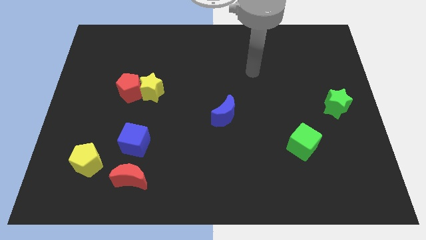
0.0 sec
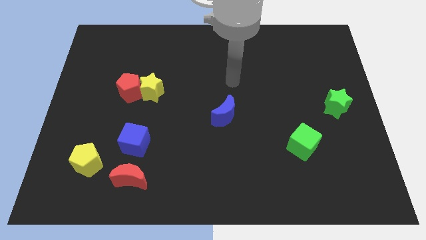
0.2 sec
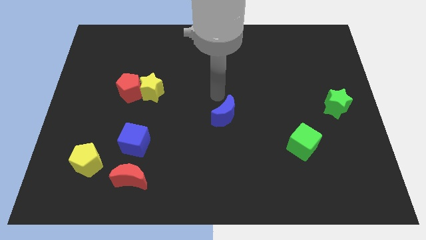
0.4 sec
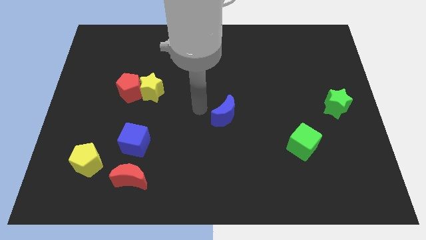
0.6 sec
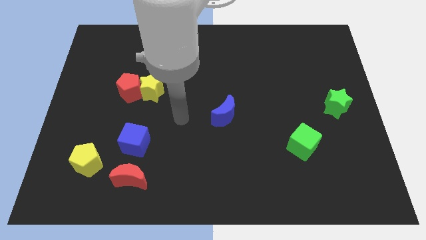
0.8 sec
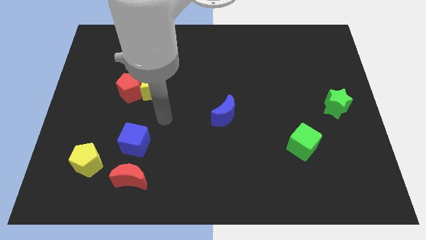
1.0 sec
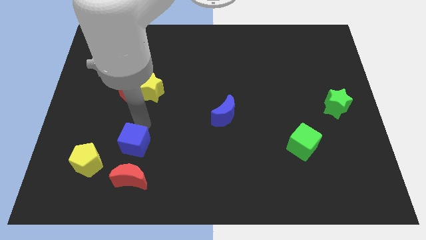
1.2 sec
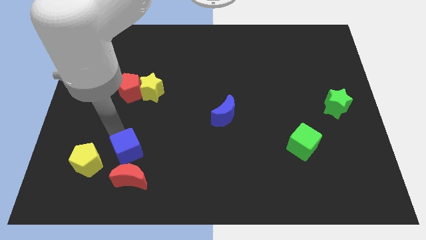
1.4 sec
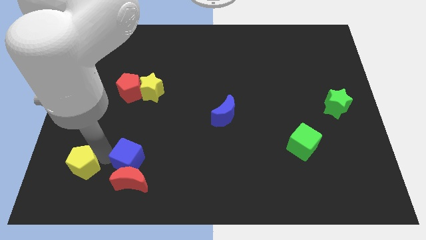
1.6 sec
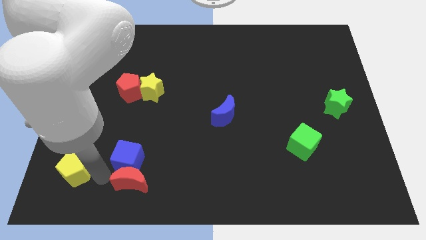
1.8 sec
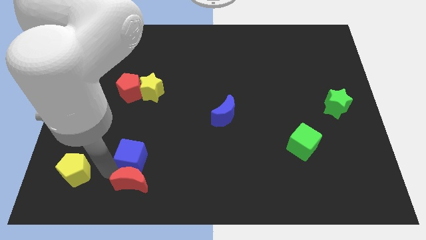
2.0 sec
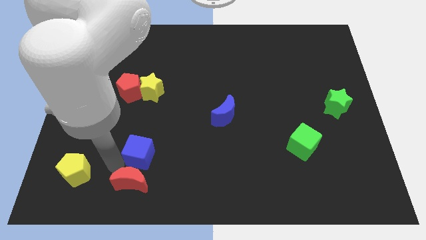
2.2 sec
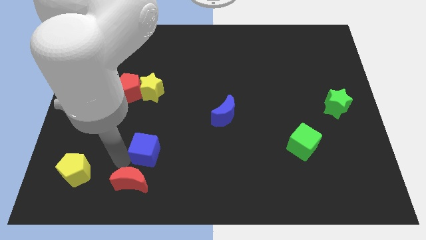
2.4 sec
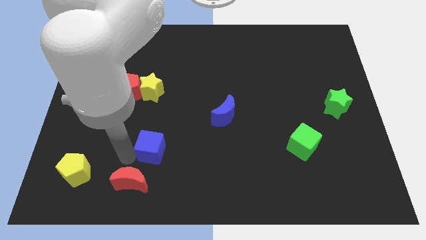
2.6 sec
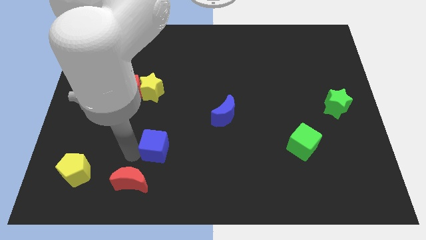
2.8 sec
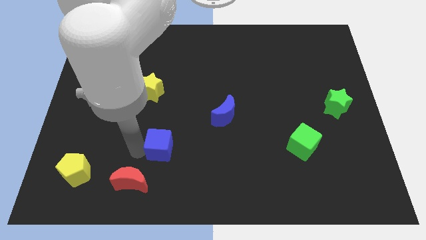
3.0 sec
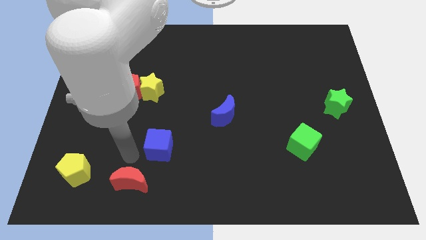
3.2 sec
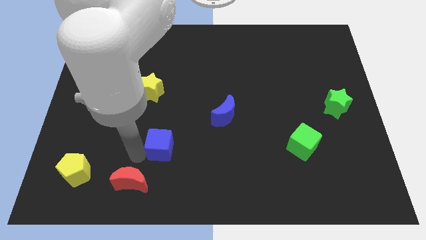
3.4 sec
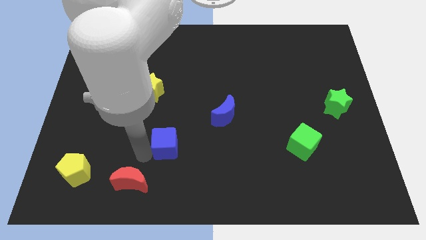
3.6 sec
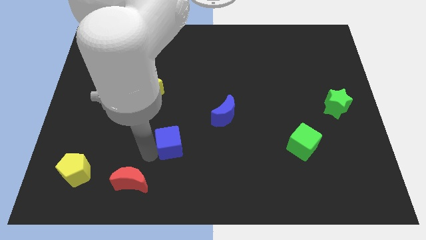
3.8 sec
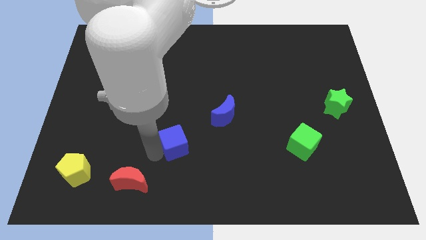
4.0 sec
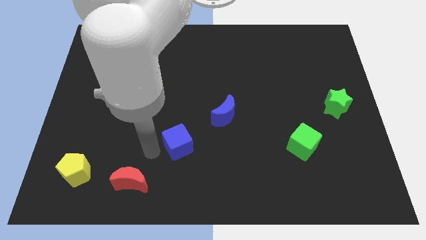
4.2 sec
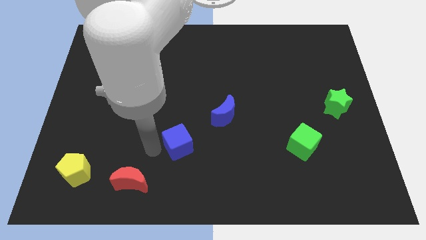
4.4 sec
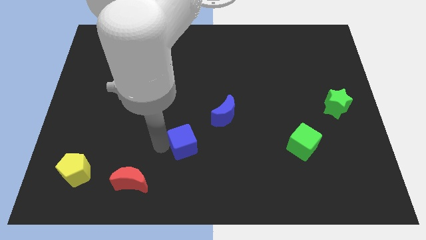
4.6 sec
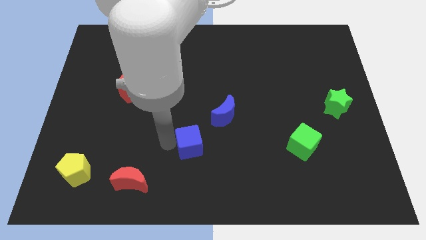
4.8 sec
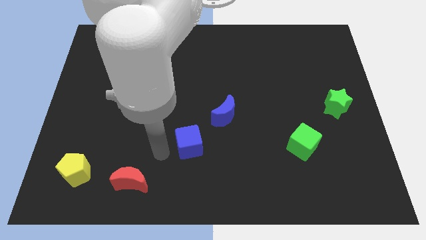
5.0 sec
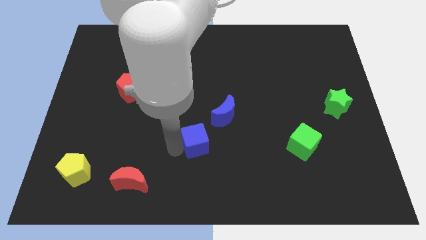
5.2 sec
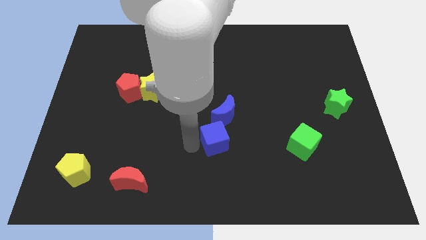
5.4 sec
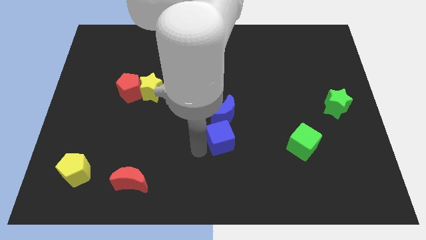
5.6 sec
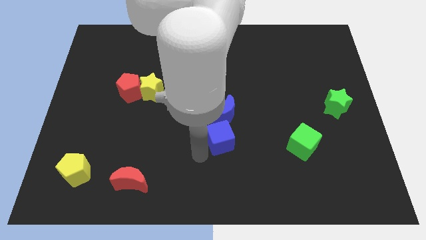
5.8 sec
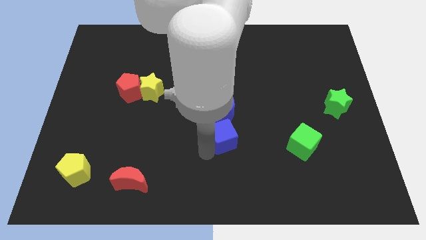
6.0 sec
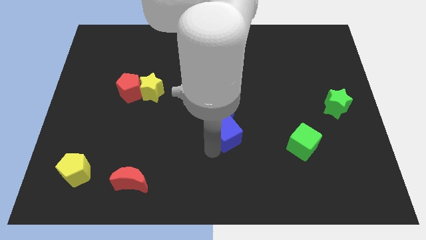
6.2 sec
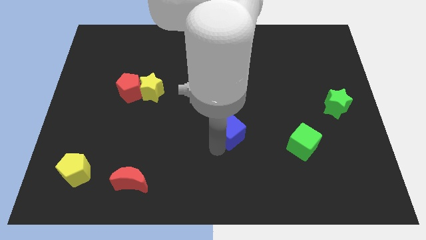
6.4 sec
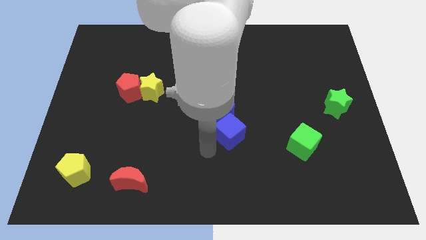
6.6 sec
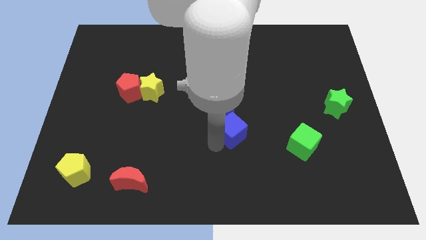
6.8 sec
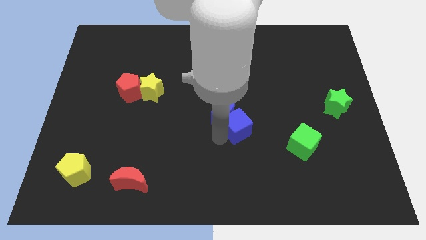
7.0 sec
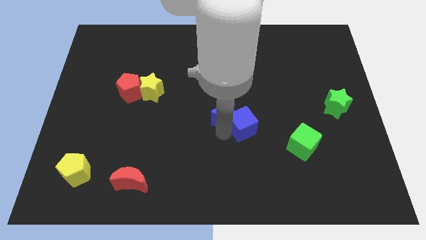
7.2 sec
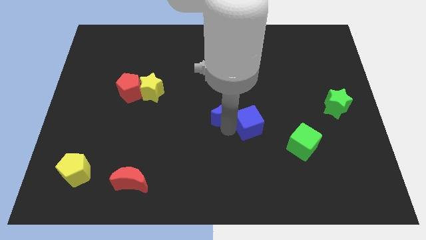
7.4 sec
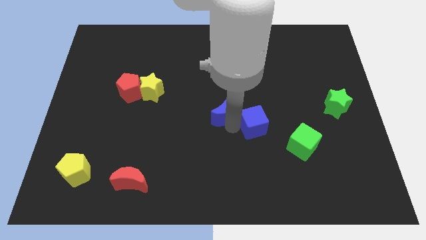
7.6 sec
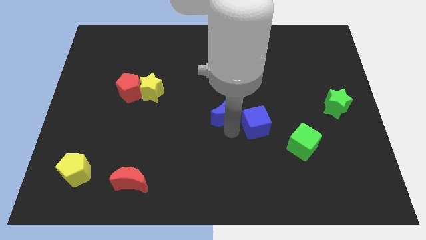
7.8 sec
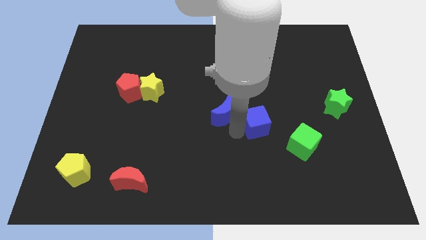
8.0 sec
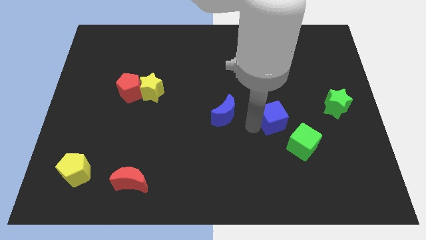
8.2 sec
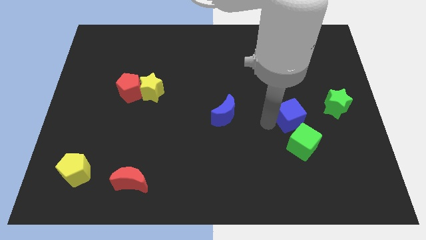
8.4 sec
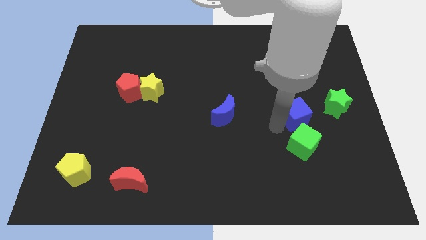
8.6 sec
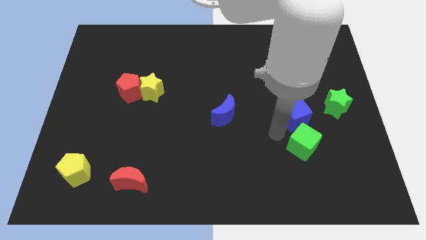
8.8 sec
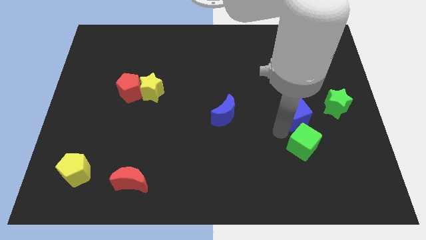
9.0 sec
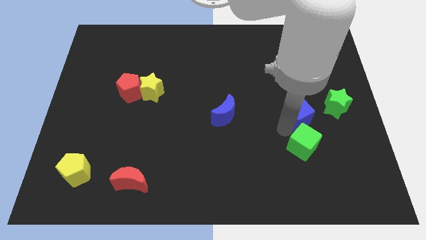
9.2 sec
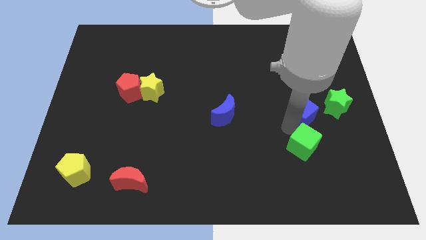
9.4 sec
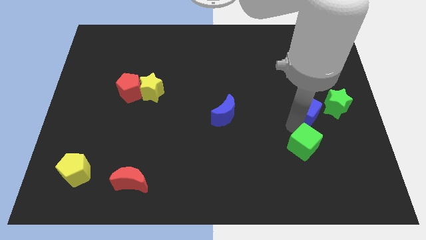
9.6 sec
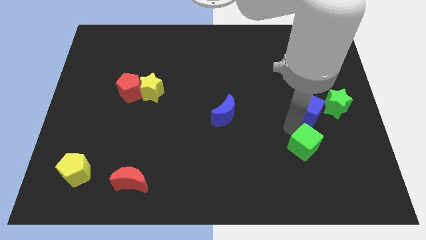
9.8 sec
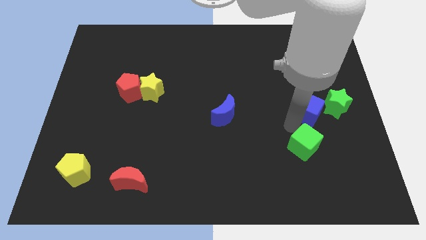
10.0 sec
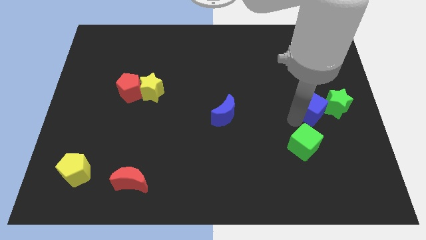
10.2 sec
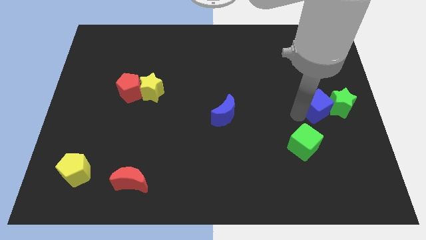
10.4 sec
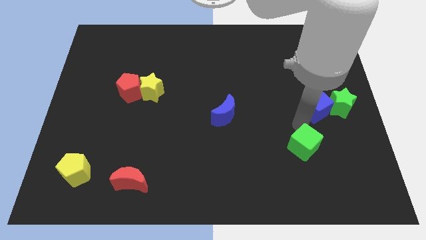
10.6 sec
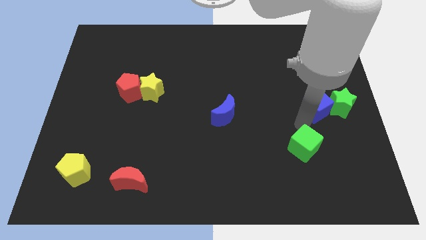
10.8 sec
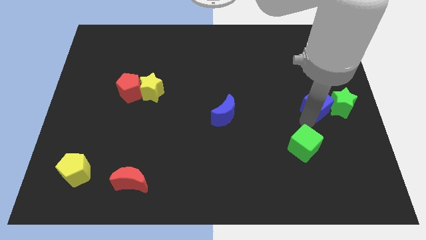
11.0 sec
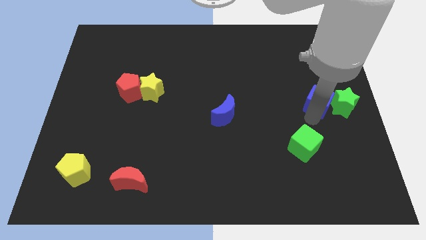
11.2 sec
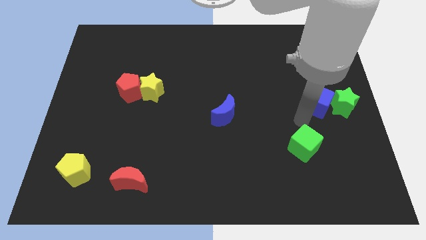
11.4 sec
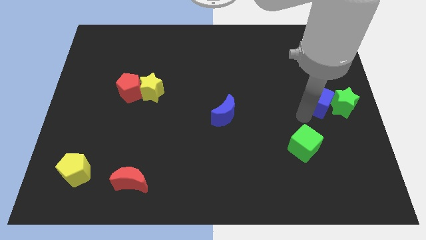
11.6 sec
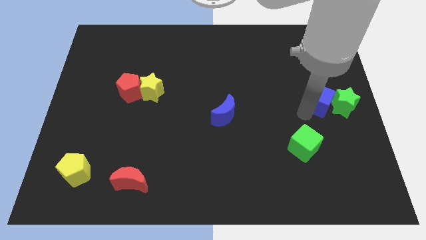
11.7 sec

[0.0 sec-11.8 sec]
put the blue cube to the right side

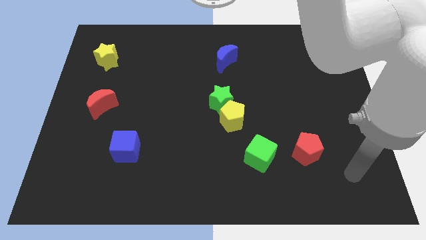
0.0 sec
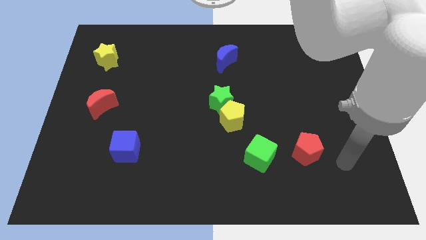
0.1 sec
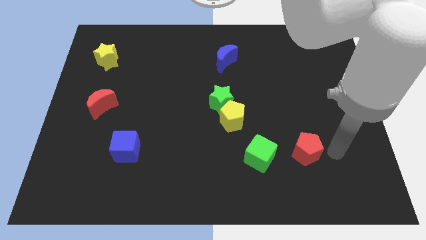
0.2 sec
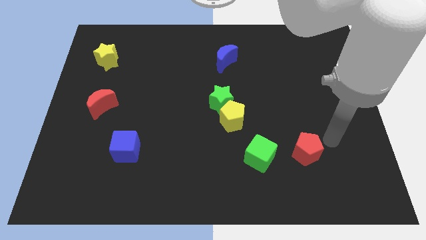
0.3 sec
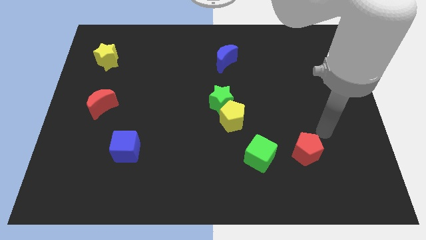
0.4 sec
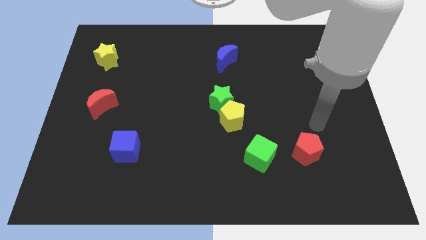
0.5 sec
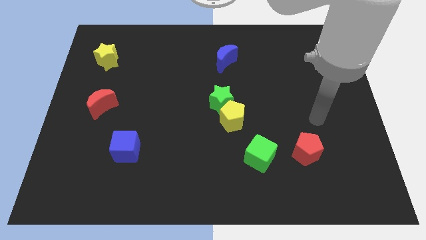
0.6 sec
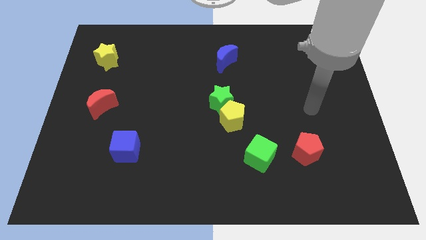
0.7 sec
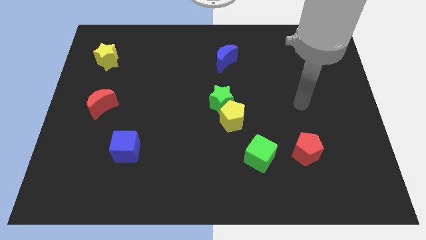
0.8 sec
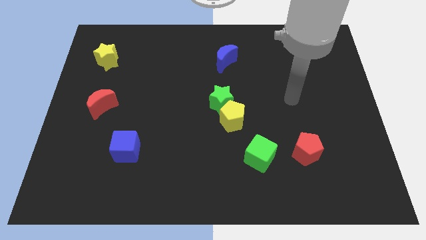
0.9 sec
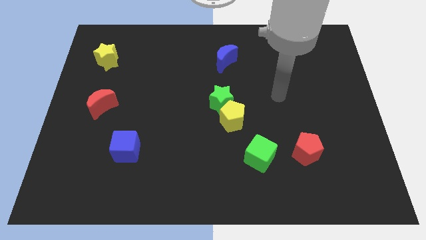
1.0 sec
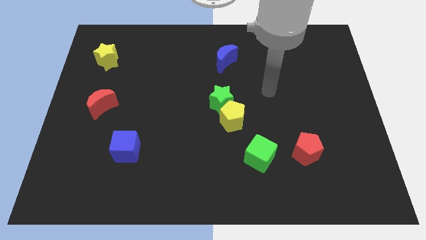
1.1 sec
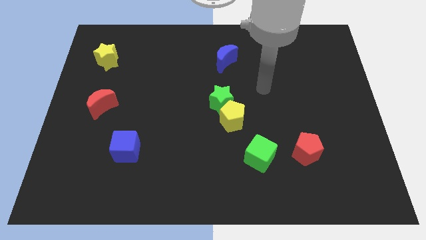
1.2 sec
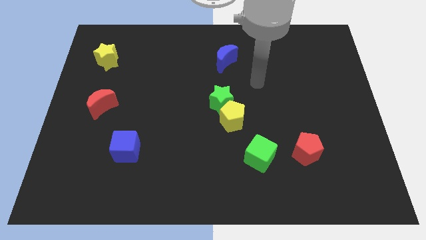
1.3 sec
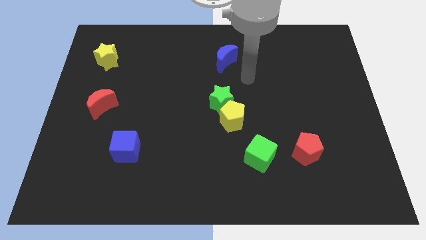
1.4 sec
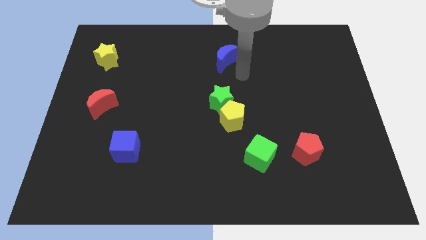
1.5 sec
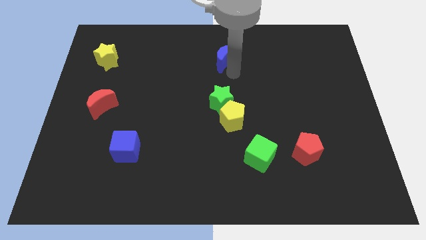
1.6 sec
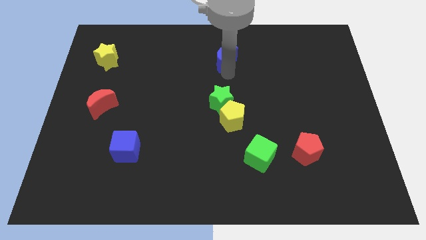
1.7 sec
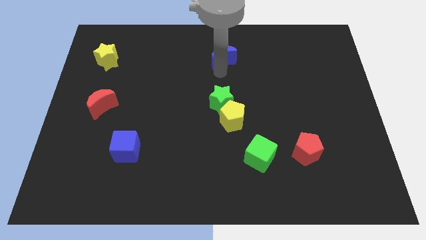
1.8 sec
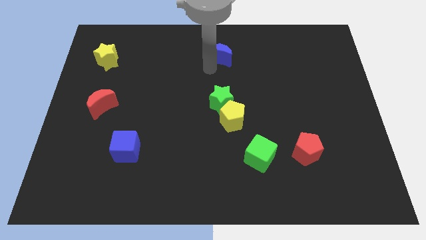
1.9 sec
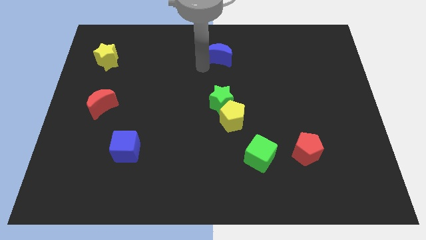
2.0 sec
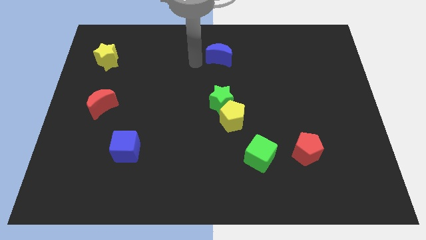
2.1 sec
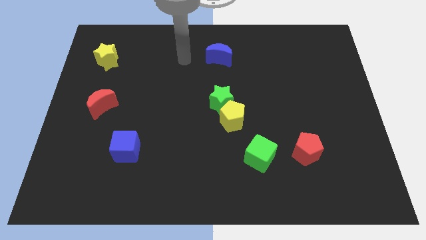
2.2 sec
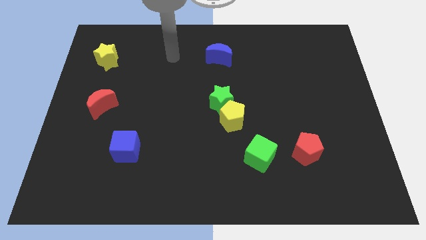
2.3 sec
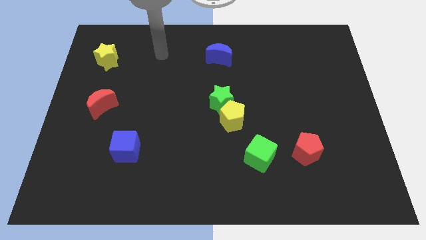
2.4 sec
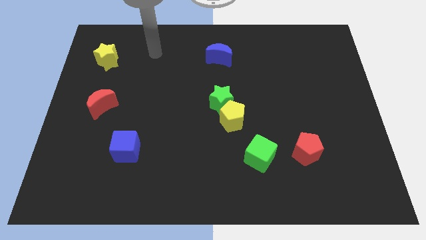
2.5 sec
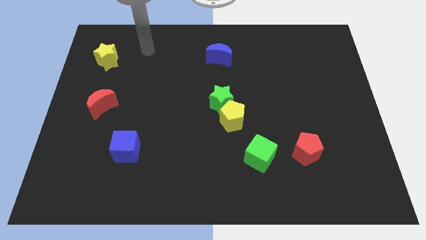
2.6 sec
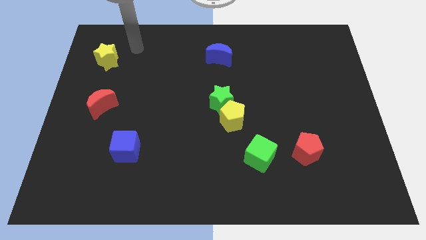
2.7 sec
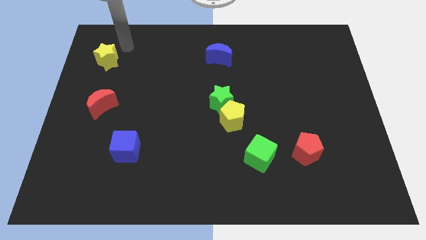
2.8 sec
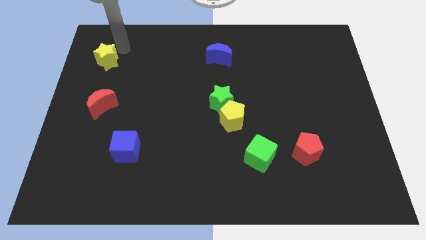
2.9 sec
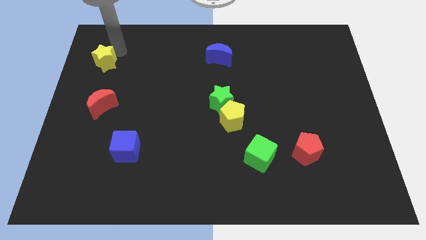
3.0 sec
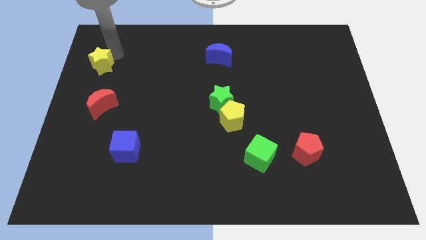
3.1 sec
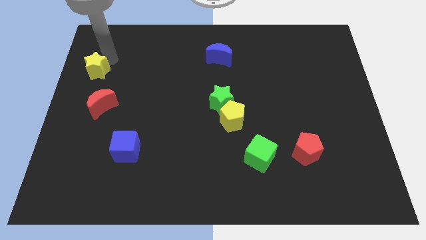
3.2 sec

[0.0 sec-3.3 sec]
move the yellow star to the left side
